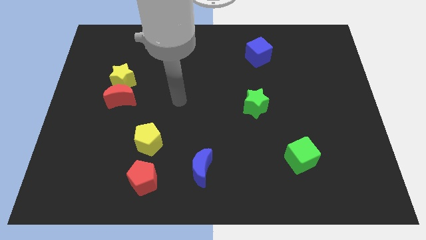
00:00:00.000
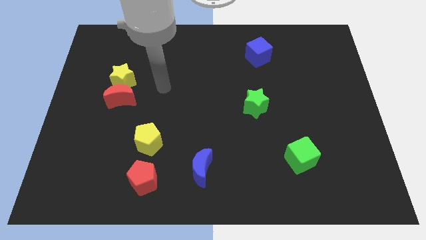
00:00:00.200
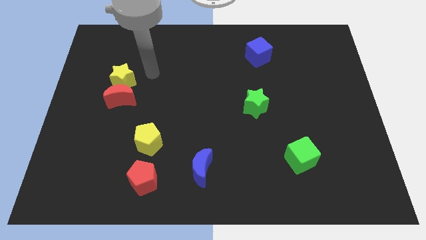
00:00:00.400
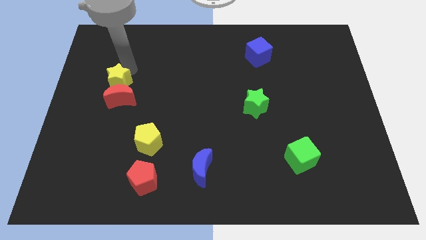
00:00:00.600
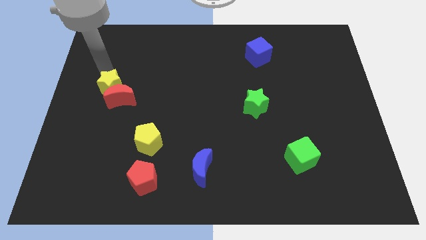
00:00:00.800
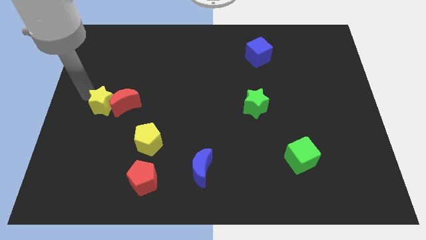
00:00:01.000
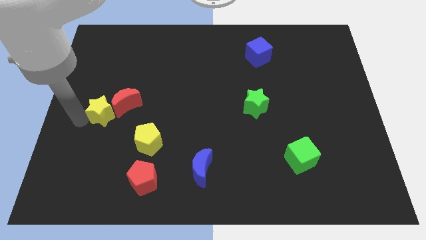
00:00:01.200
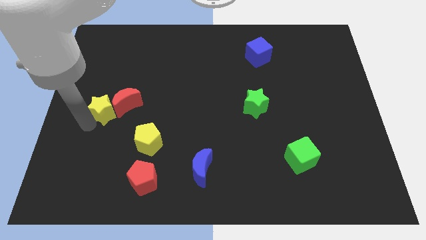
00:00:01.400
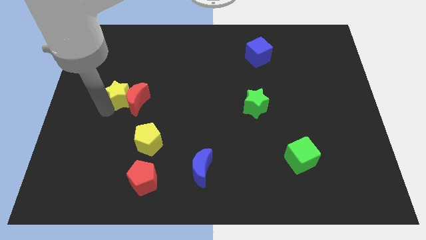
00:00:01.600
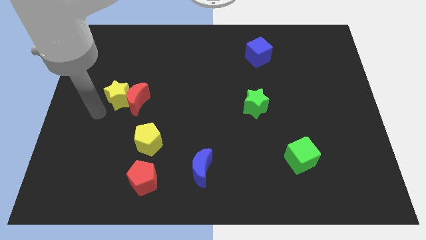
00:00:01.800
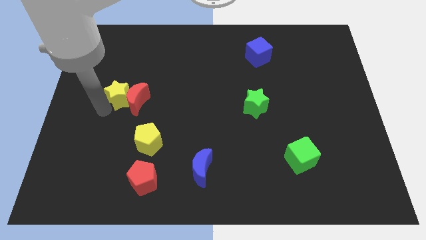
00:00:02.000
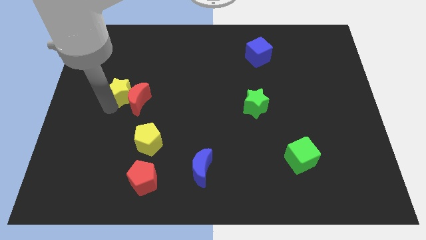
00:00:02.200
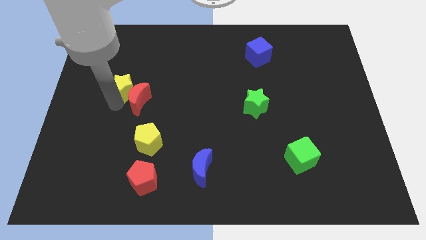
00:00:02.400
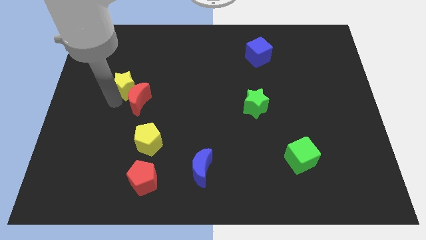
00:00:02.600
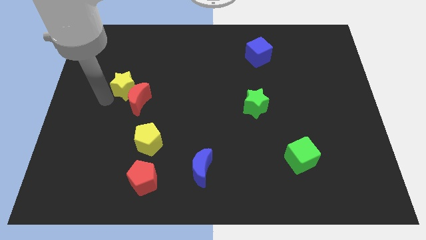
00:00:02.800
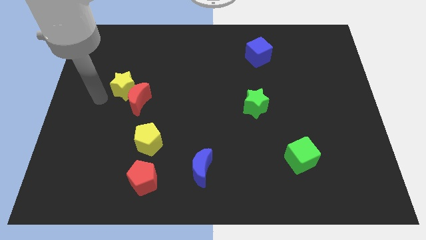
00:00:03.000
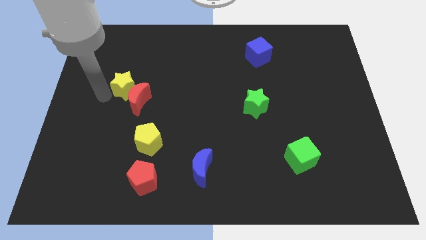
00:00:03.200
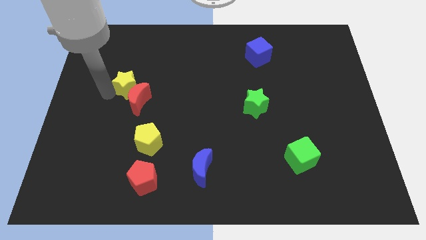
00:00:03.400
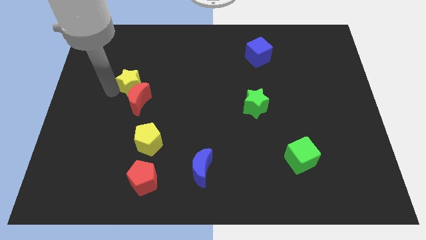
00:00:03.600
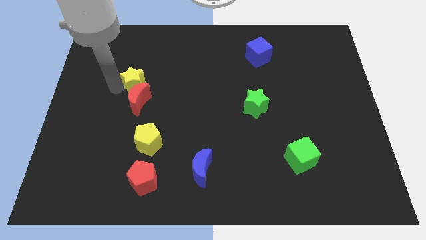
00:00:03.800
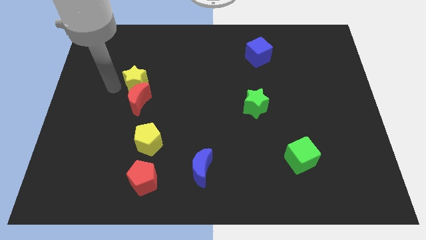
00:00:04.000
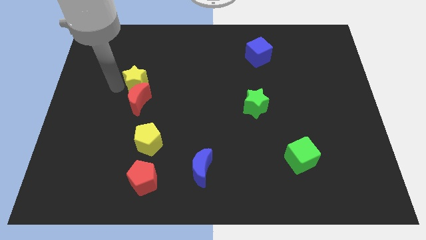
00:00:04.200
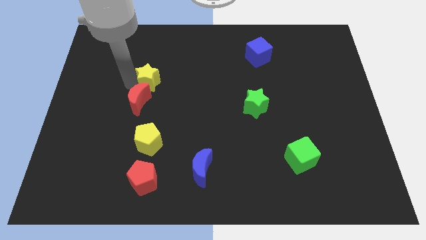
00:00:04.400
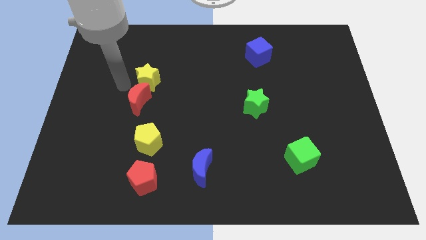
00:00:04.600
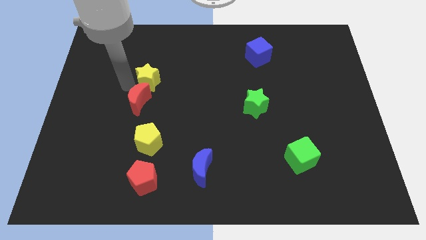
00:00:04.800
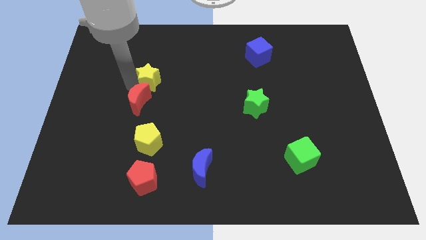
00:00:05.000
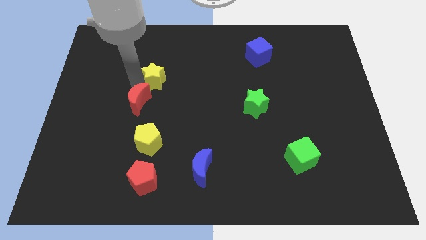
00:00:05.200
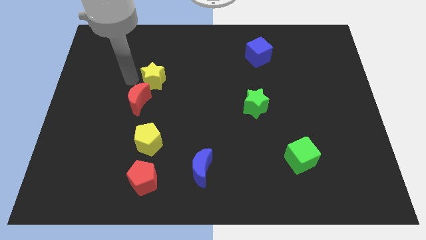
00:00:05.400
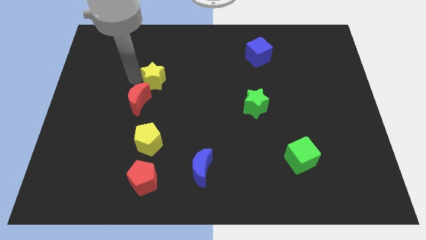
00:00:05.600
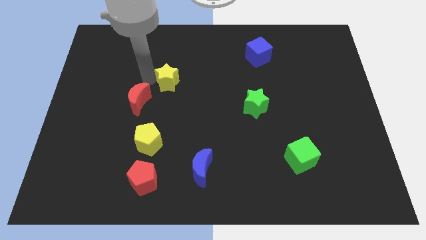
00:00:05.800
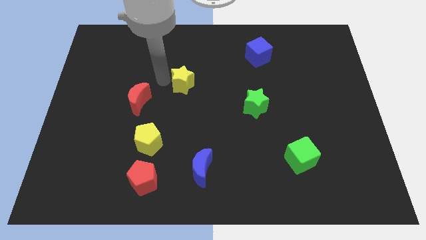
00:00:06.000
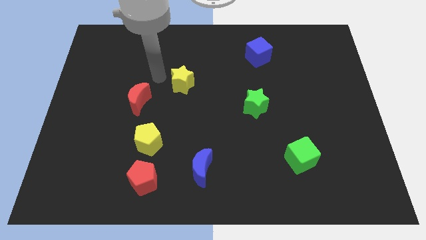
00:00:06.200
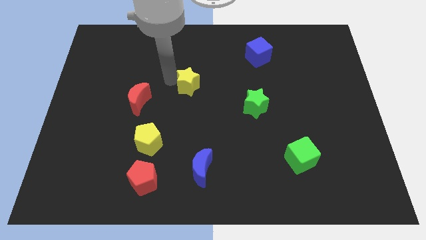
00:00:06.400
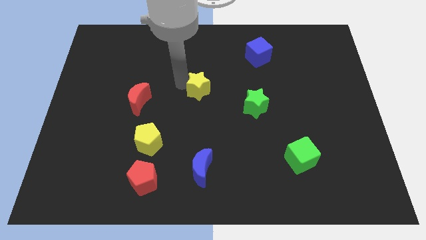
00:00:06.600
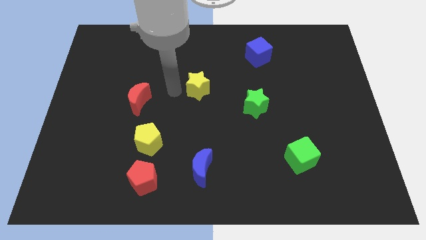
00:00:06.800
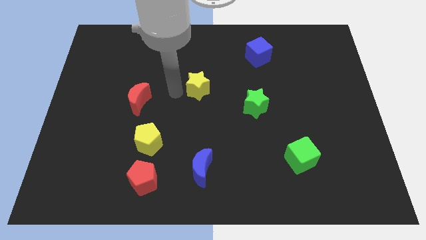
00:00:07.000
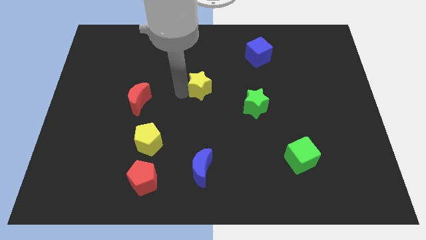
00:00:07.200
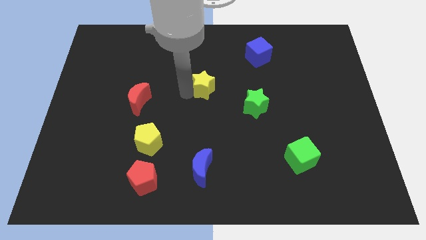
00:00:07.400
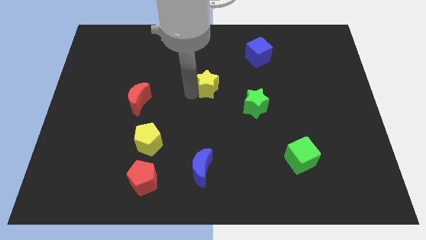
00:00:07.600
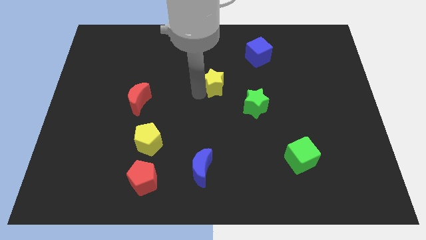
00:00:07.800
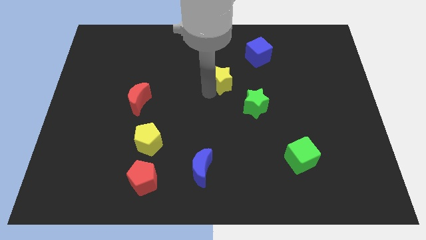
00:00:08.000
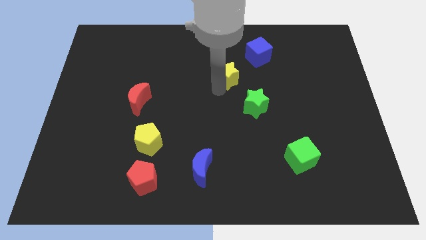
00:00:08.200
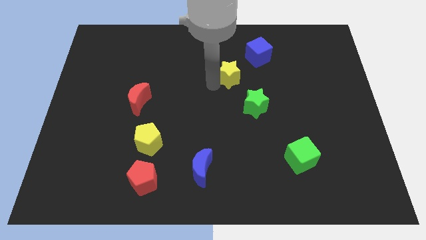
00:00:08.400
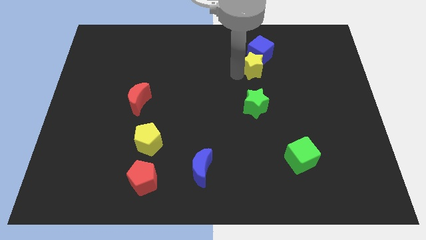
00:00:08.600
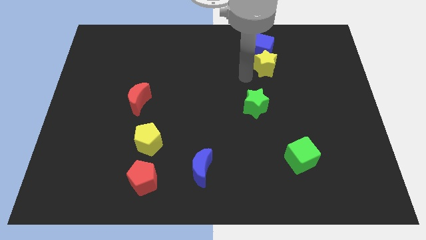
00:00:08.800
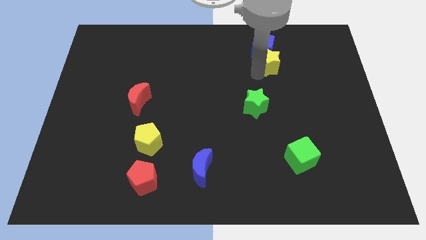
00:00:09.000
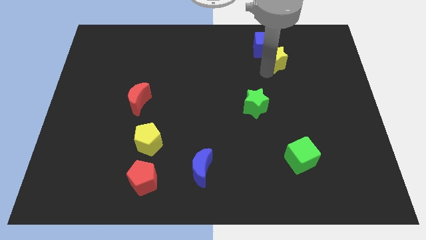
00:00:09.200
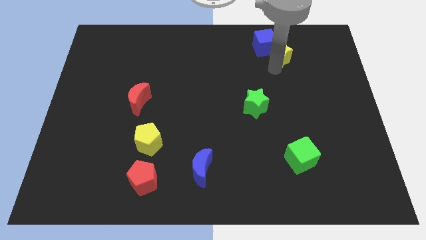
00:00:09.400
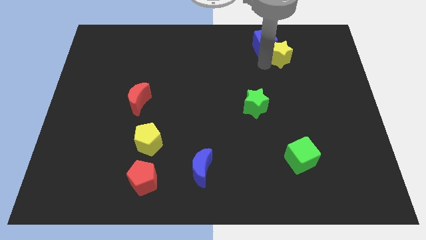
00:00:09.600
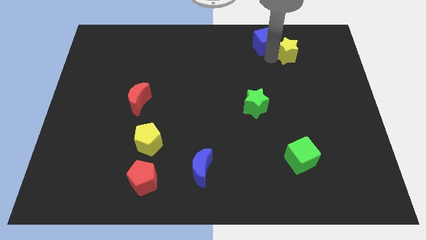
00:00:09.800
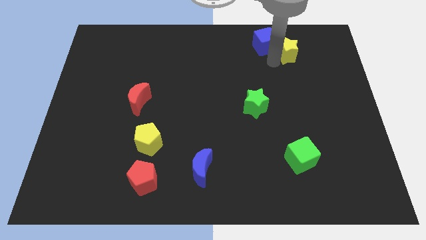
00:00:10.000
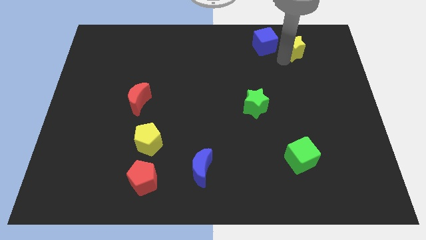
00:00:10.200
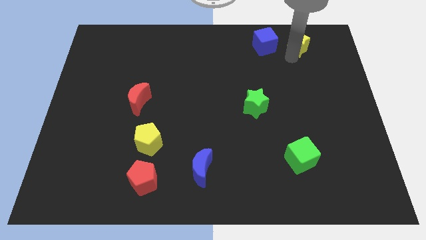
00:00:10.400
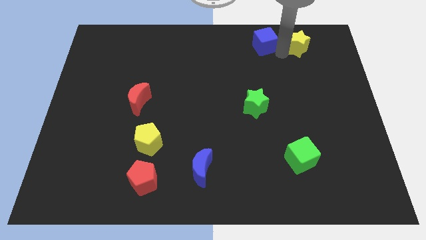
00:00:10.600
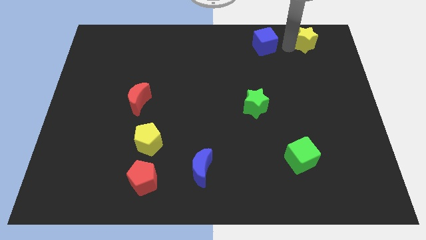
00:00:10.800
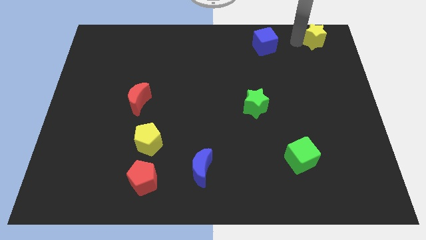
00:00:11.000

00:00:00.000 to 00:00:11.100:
put the yellow star to the top right corner

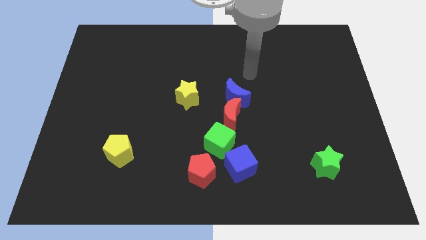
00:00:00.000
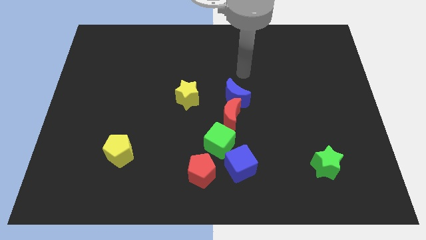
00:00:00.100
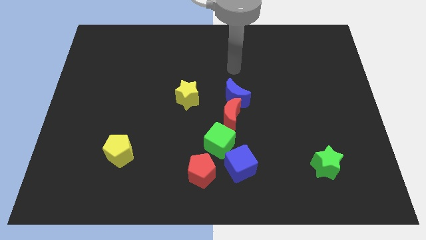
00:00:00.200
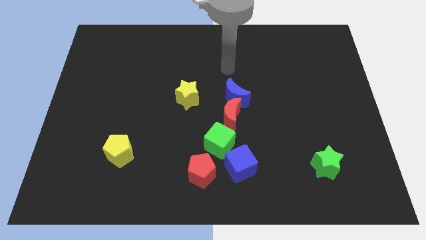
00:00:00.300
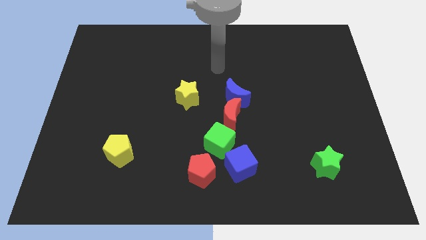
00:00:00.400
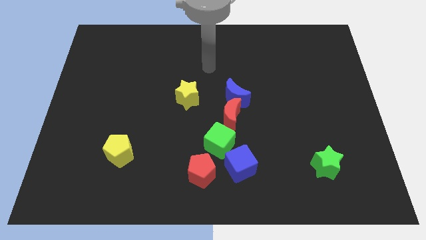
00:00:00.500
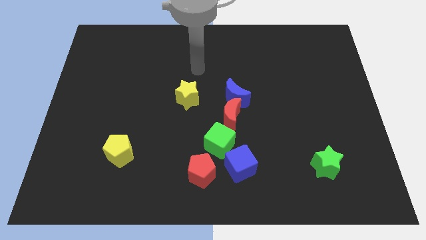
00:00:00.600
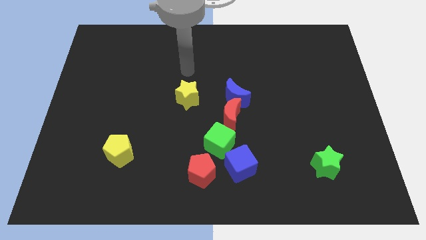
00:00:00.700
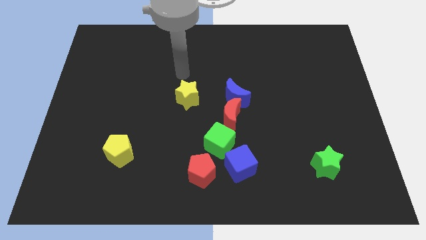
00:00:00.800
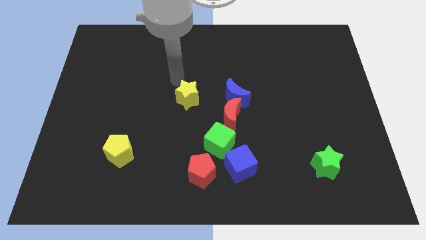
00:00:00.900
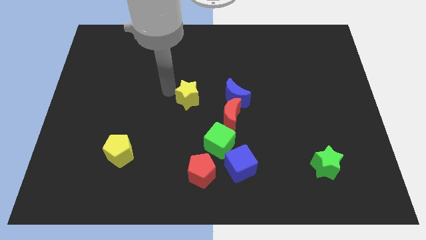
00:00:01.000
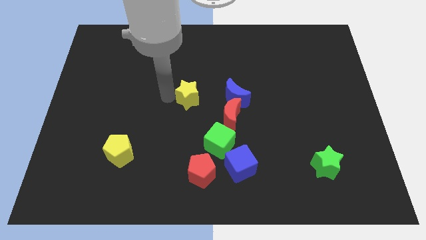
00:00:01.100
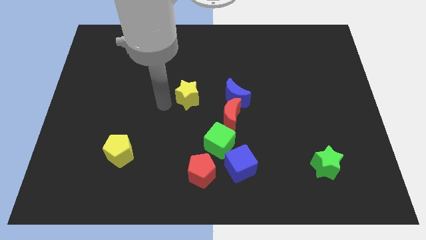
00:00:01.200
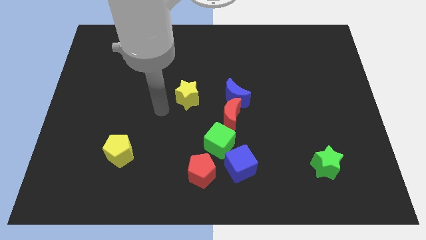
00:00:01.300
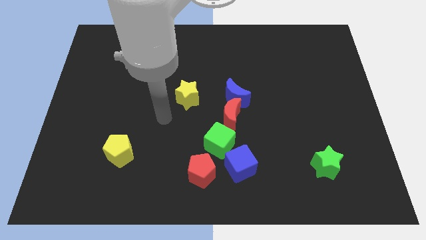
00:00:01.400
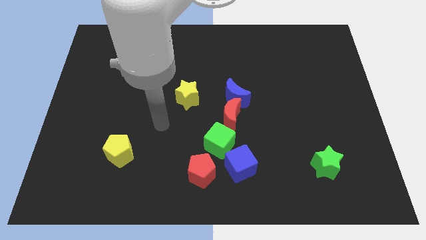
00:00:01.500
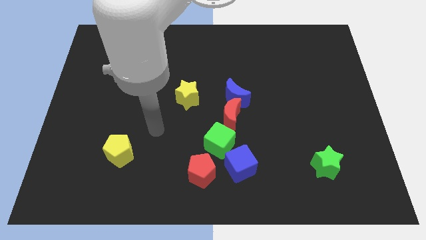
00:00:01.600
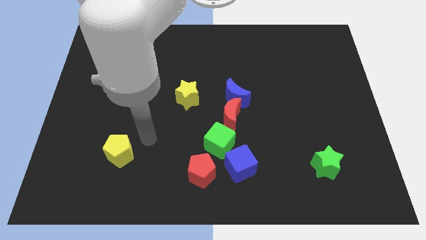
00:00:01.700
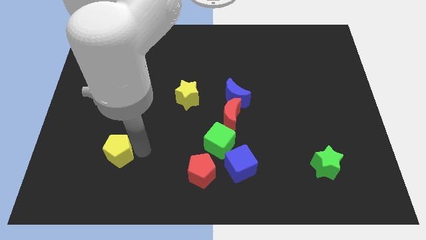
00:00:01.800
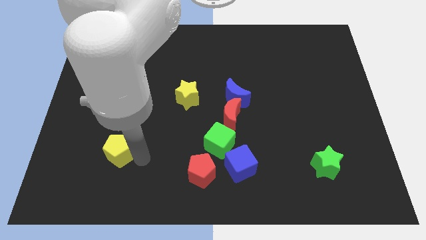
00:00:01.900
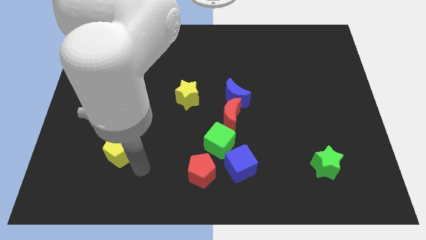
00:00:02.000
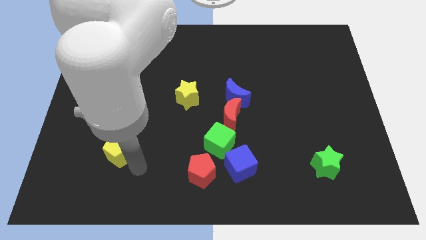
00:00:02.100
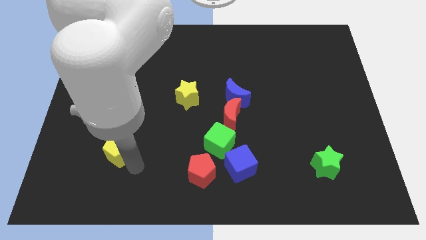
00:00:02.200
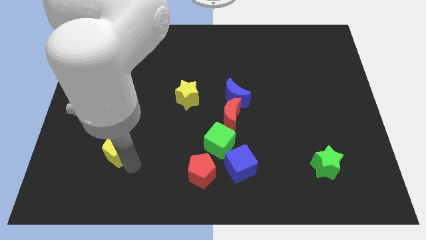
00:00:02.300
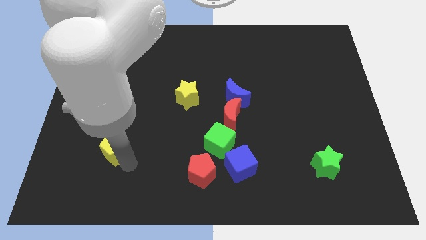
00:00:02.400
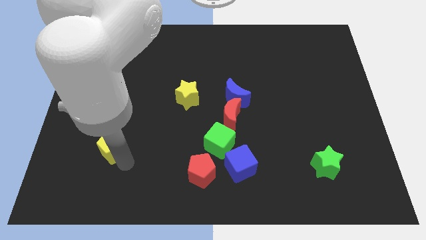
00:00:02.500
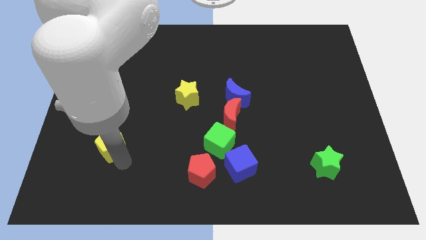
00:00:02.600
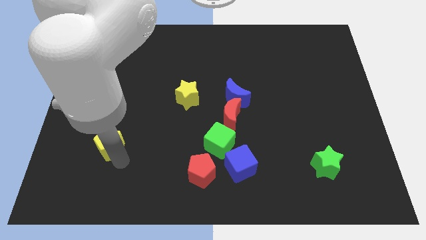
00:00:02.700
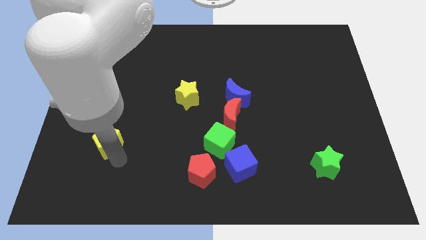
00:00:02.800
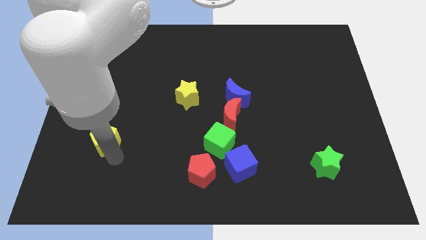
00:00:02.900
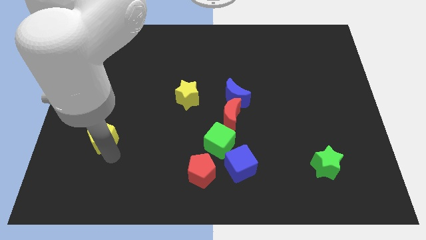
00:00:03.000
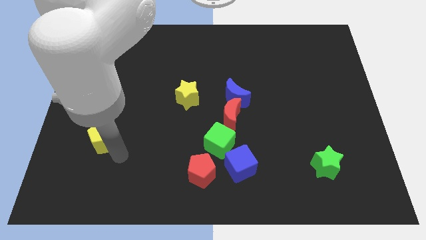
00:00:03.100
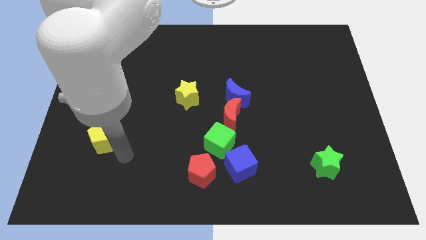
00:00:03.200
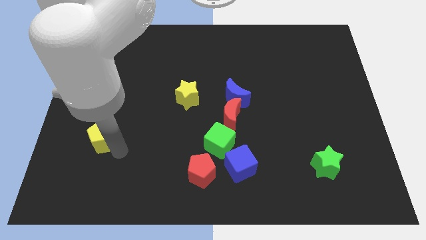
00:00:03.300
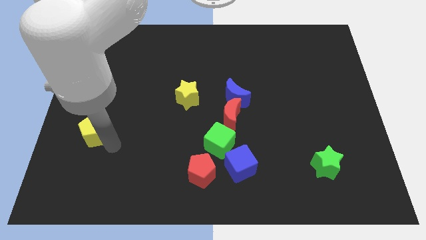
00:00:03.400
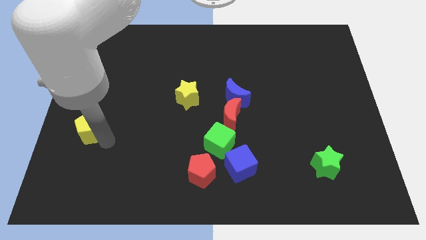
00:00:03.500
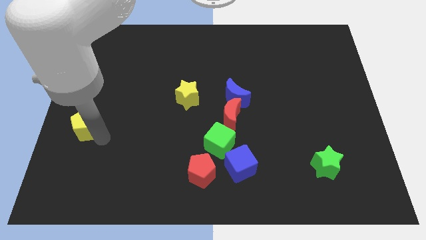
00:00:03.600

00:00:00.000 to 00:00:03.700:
put the yellow pentagon to the left side of the board
